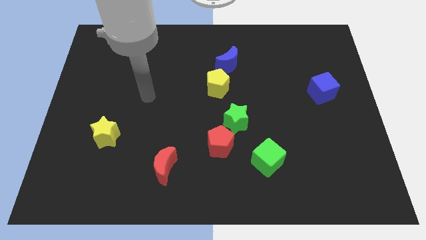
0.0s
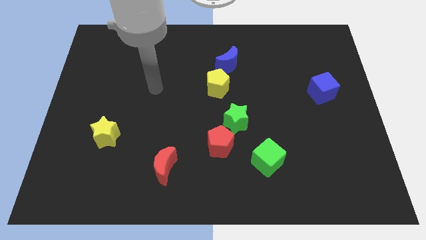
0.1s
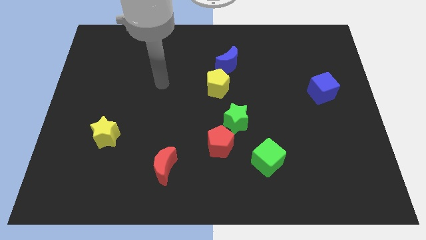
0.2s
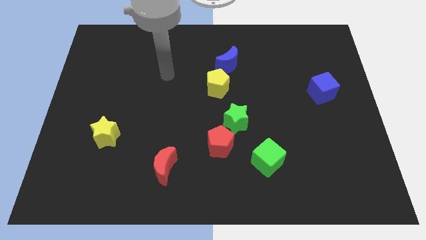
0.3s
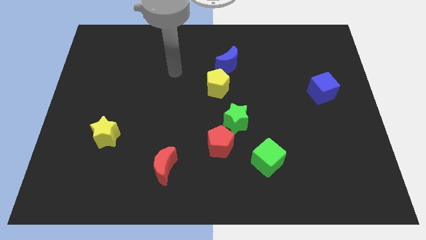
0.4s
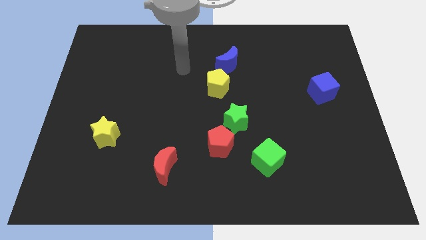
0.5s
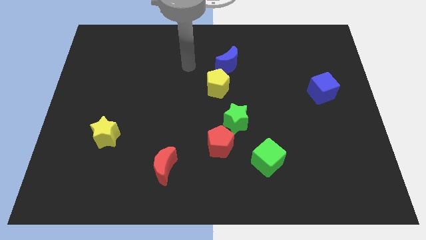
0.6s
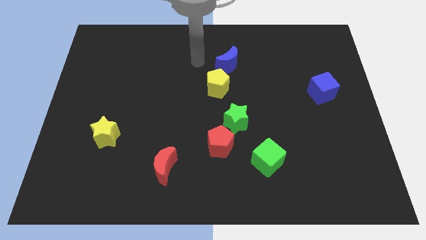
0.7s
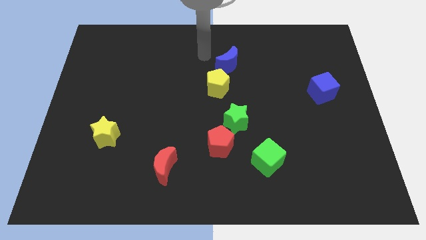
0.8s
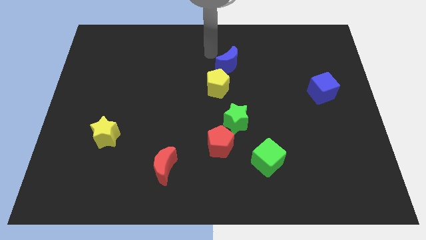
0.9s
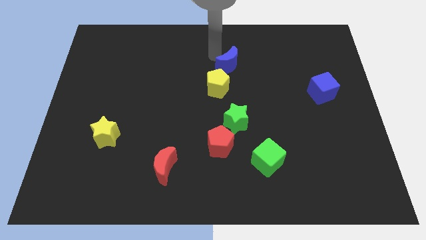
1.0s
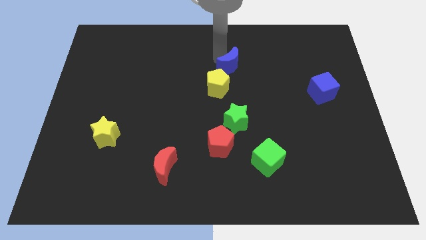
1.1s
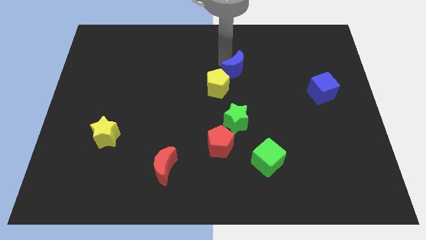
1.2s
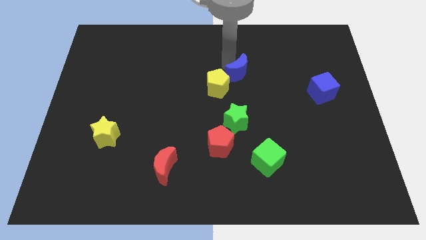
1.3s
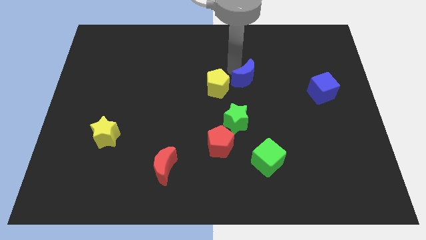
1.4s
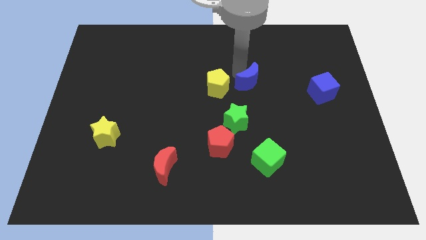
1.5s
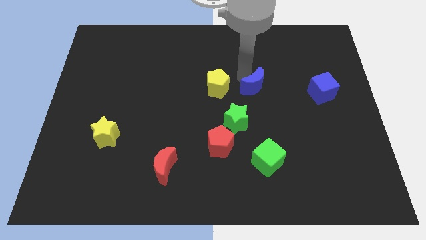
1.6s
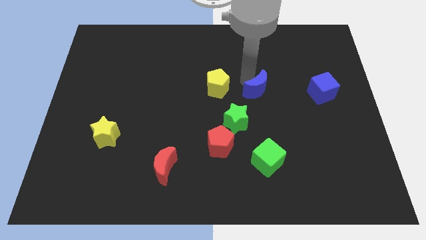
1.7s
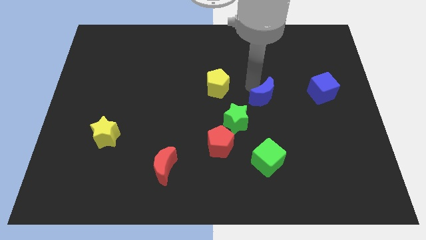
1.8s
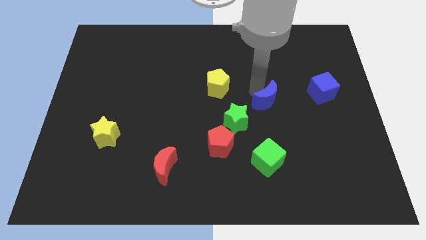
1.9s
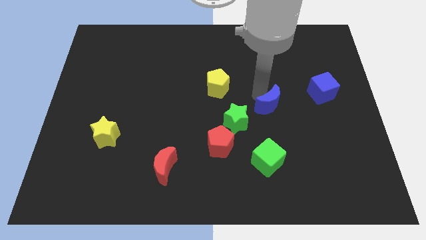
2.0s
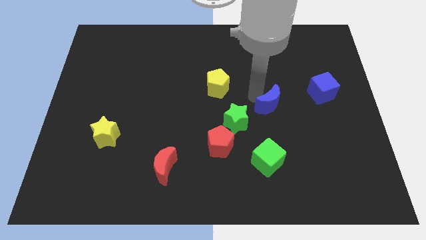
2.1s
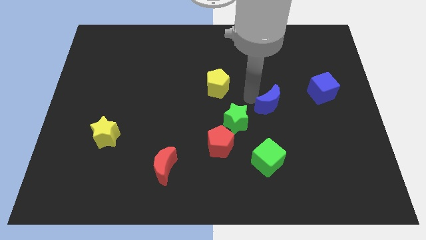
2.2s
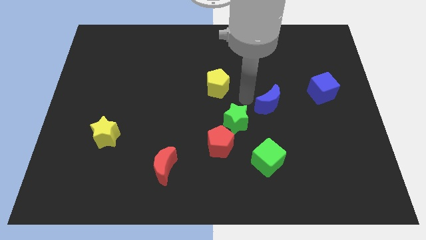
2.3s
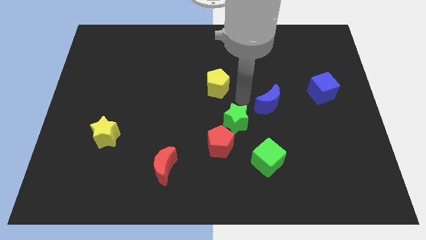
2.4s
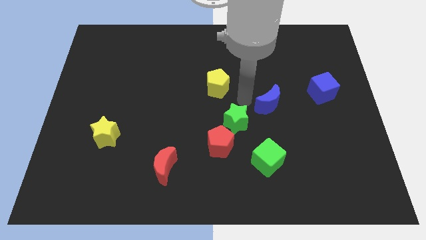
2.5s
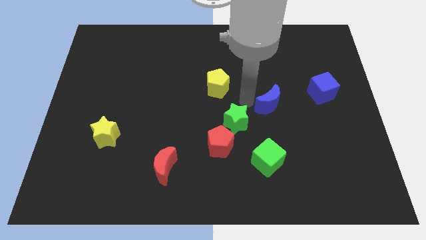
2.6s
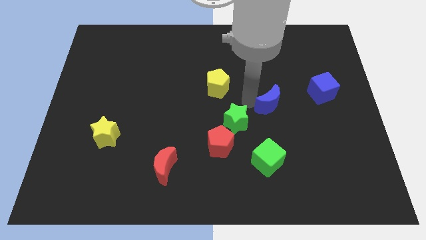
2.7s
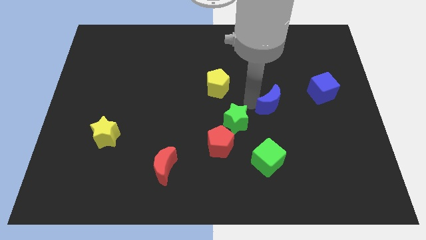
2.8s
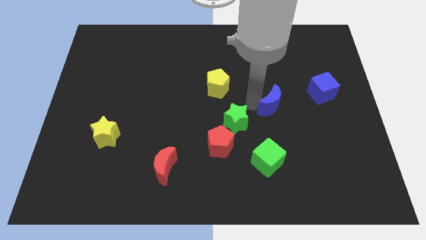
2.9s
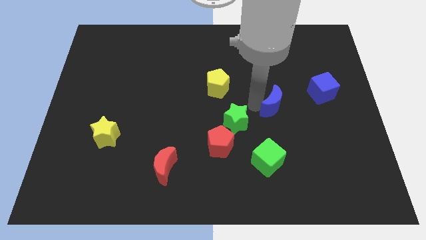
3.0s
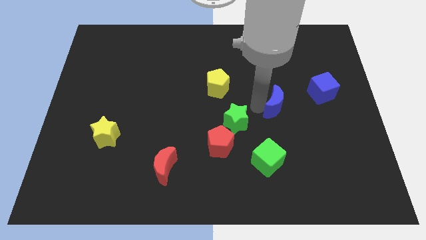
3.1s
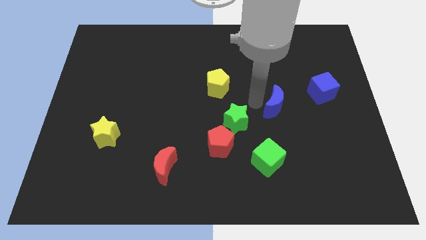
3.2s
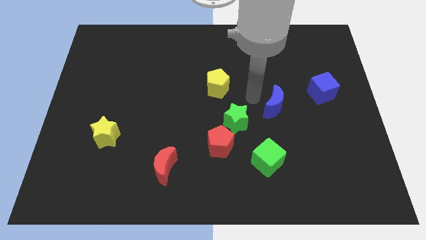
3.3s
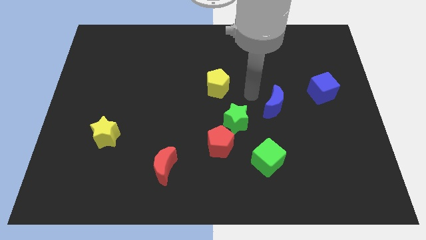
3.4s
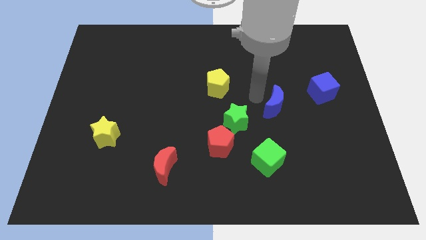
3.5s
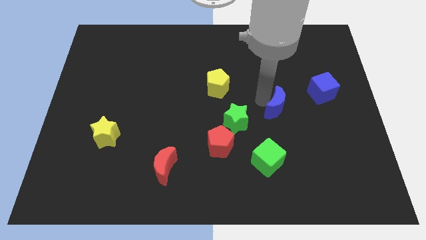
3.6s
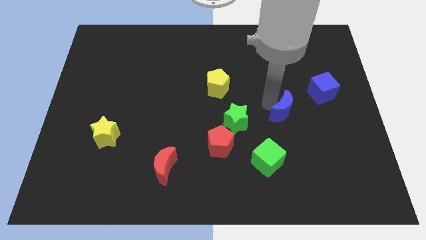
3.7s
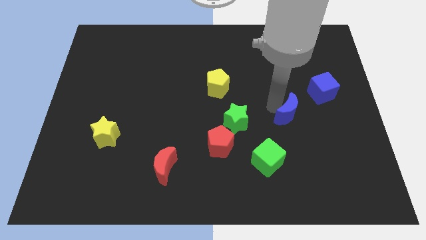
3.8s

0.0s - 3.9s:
slide the blue moon down and right

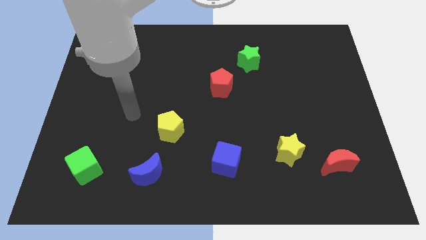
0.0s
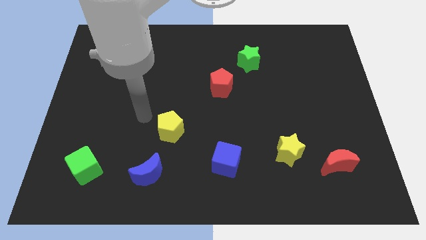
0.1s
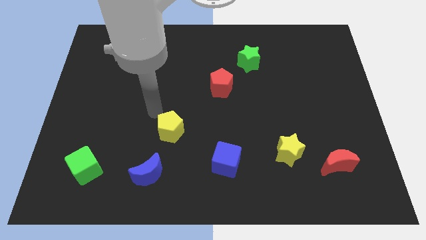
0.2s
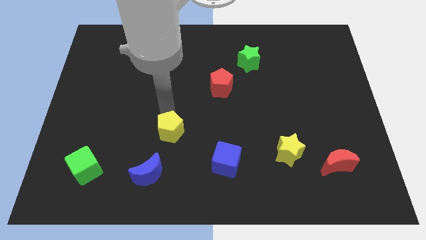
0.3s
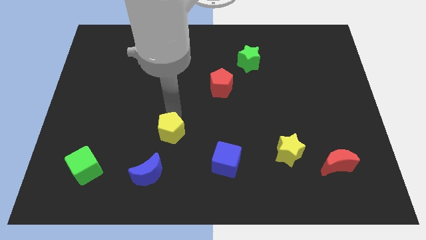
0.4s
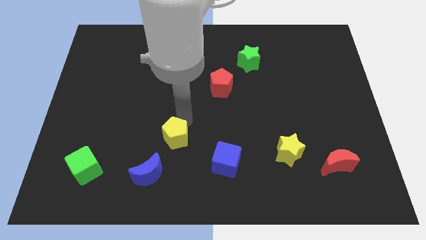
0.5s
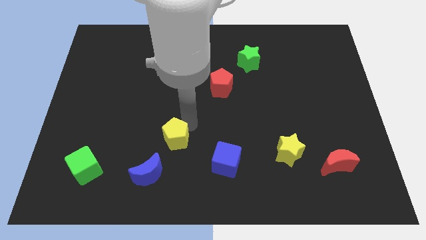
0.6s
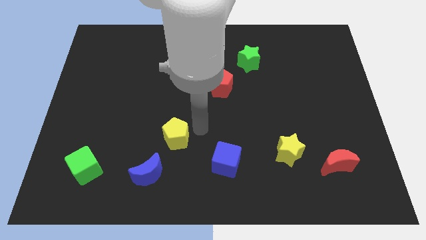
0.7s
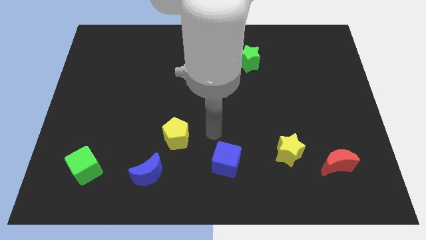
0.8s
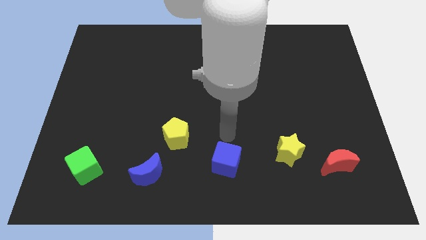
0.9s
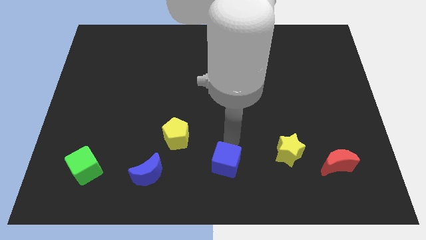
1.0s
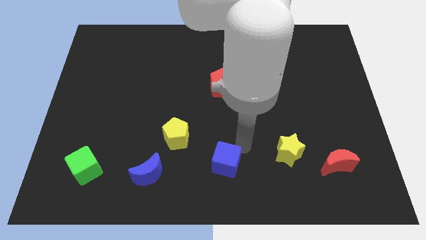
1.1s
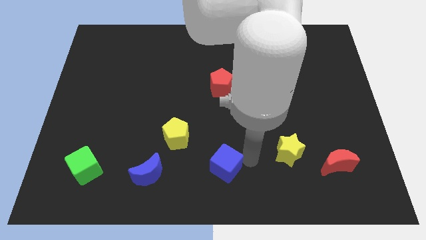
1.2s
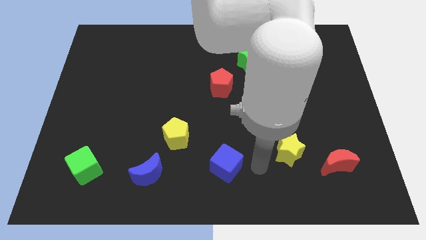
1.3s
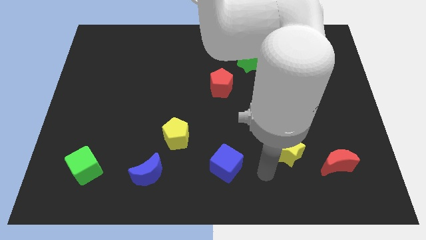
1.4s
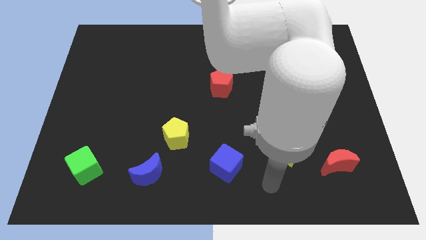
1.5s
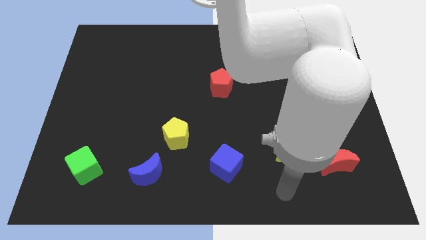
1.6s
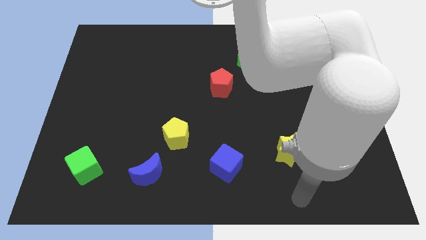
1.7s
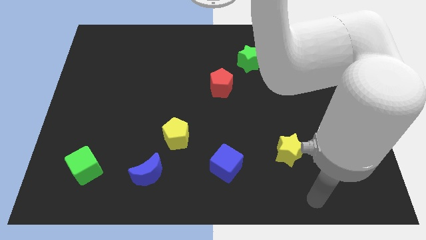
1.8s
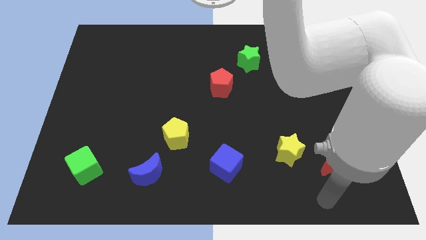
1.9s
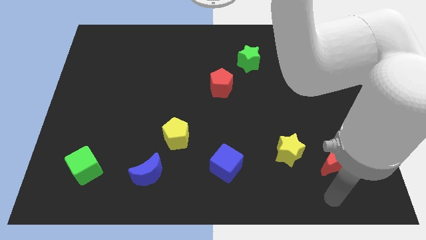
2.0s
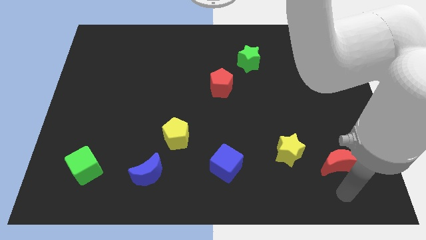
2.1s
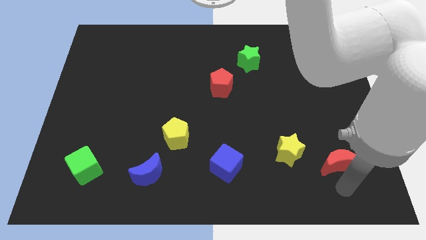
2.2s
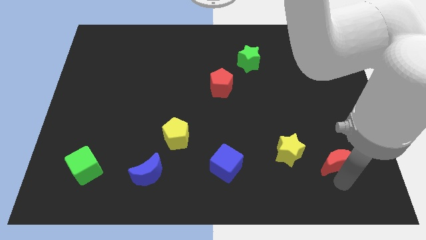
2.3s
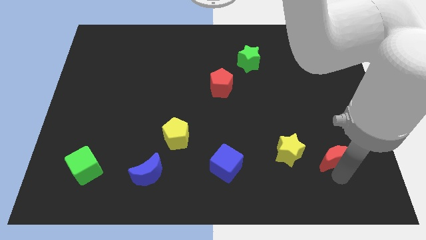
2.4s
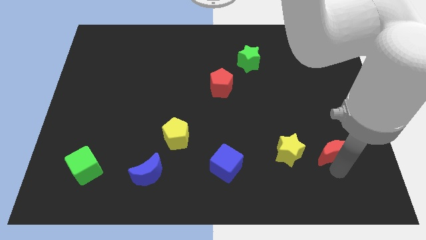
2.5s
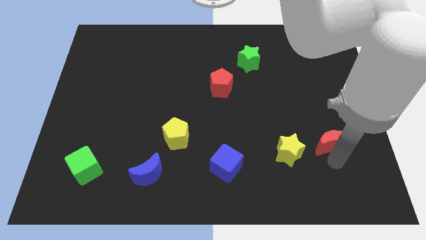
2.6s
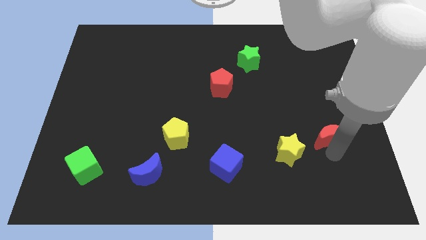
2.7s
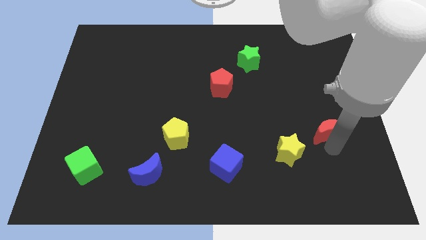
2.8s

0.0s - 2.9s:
move the red moon up somewhat

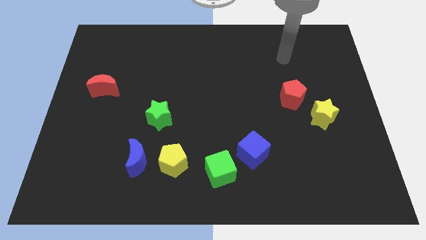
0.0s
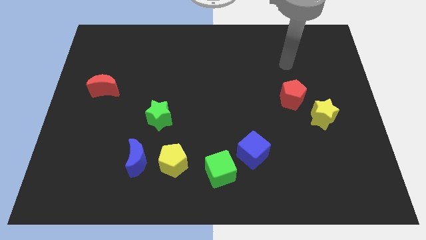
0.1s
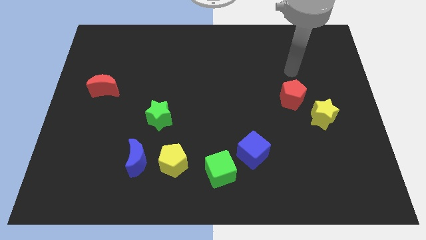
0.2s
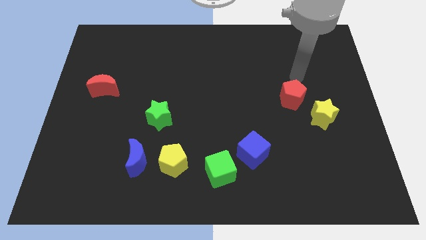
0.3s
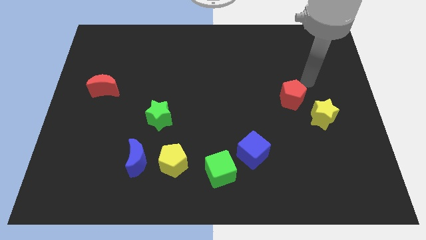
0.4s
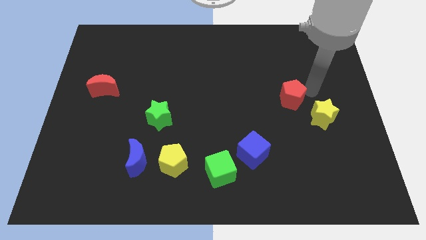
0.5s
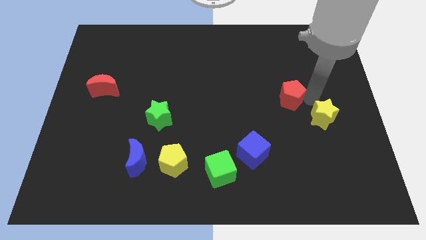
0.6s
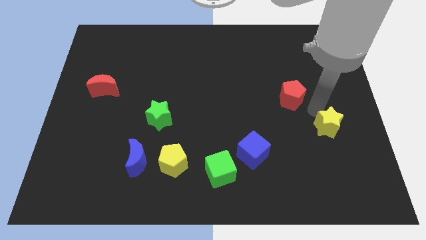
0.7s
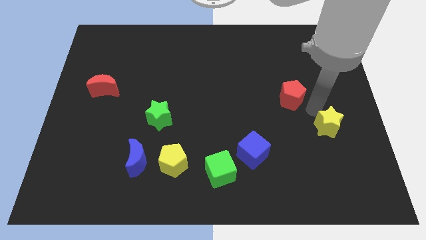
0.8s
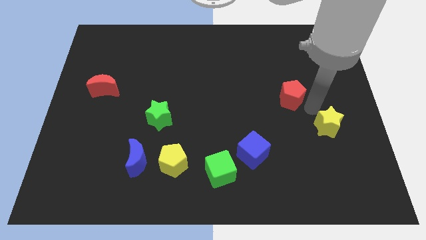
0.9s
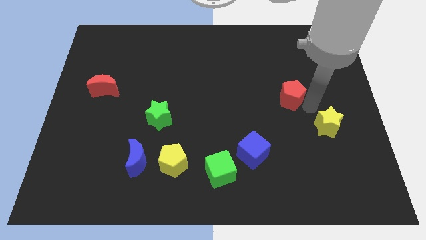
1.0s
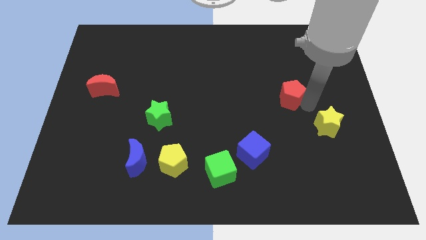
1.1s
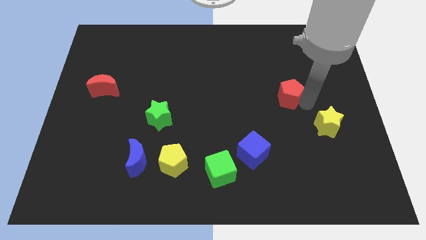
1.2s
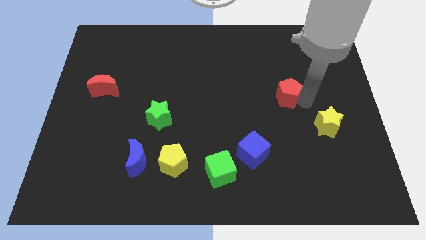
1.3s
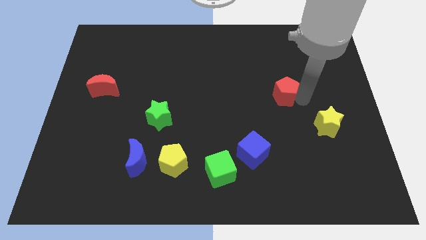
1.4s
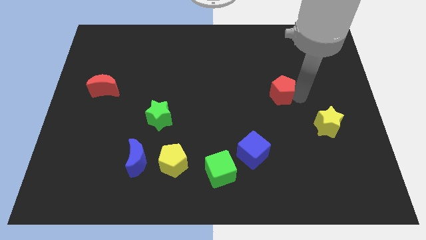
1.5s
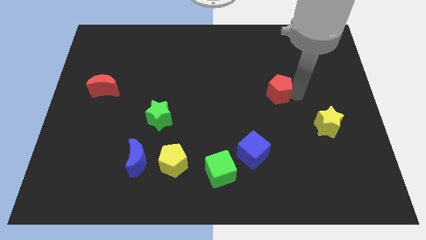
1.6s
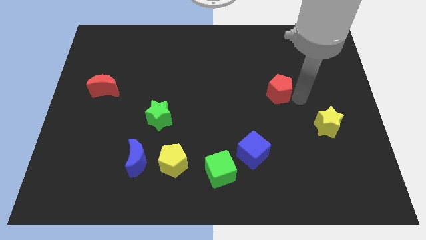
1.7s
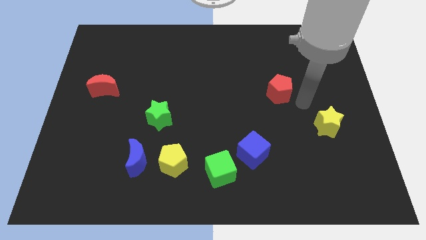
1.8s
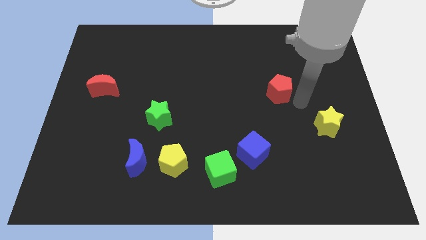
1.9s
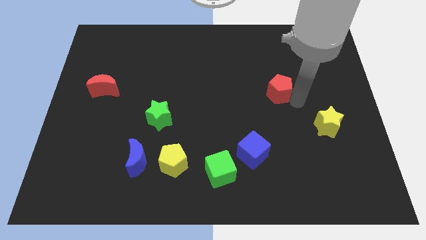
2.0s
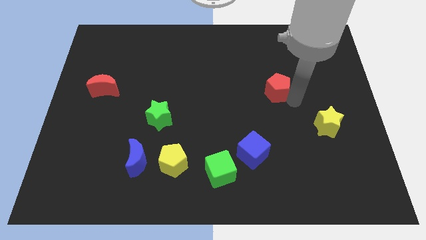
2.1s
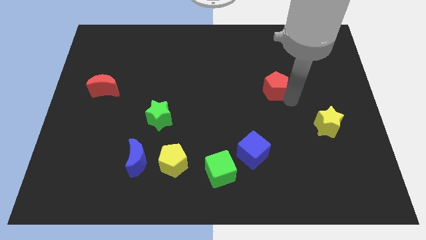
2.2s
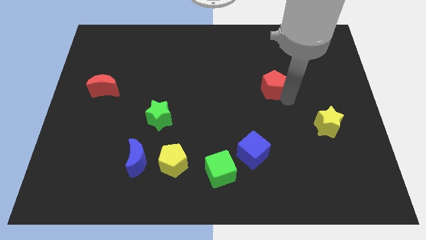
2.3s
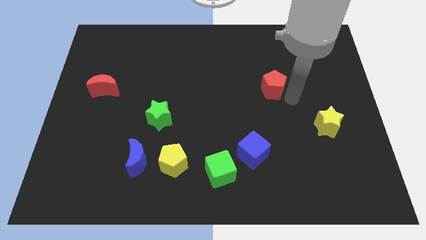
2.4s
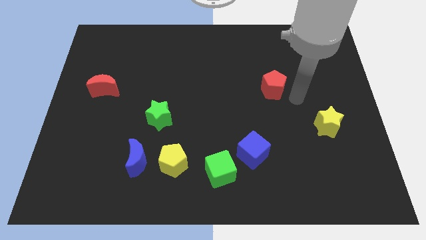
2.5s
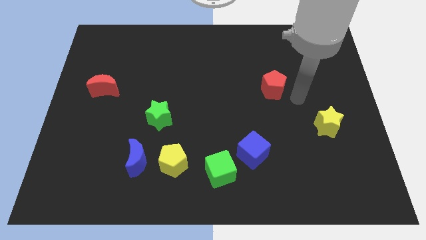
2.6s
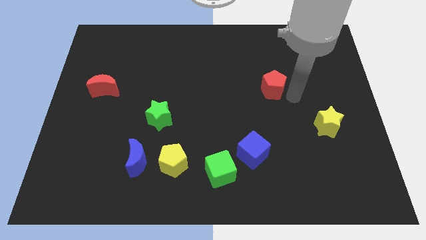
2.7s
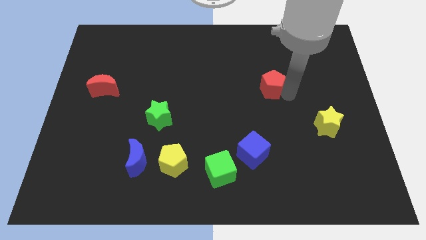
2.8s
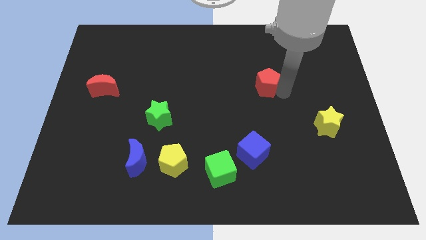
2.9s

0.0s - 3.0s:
slide the red pentagon diagonally upwards and to the left a little bit
